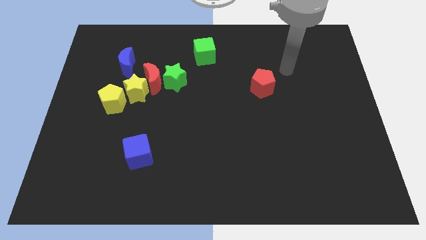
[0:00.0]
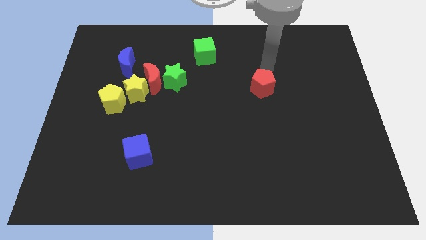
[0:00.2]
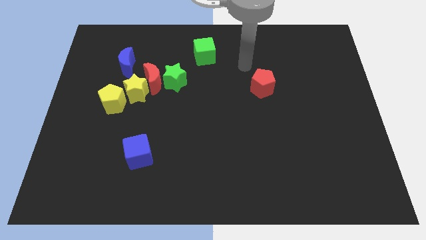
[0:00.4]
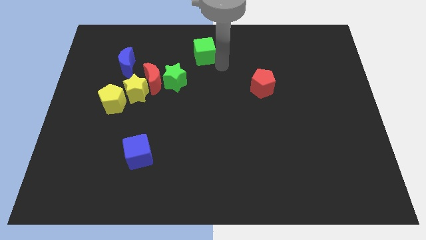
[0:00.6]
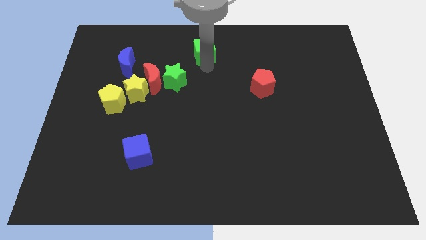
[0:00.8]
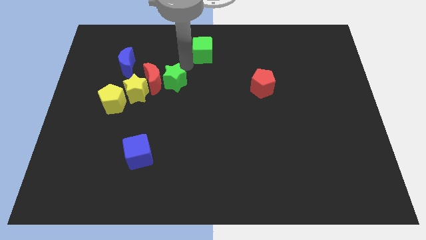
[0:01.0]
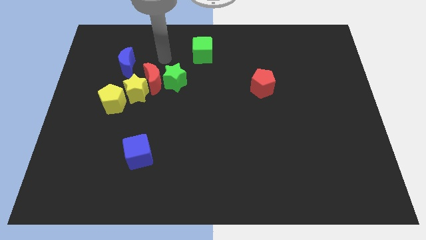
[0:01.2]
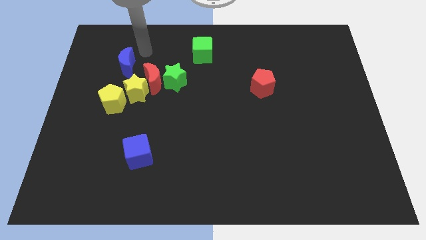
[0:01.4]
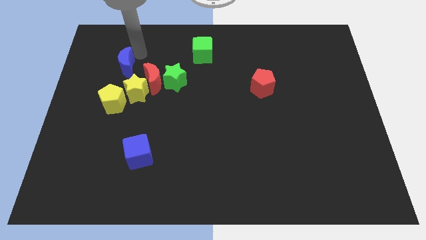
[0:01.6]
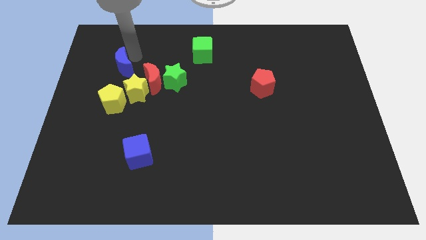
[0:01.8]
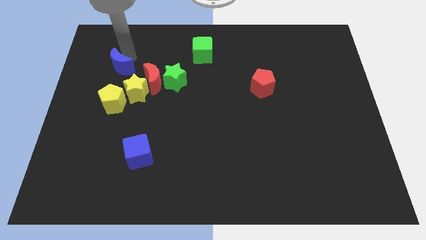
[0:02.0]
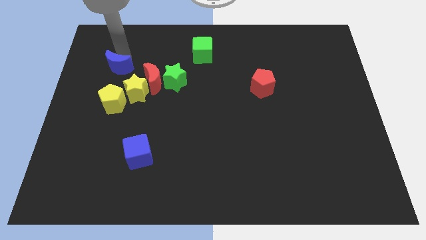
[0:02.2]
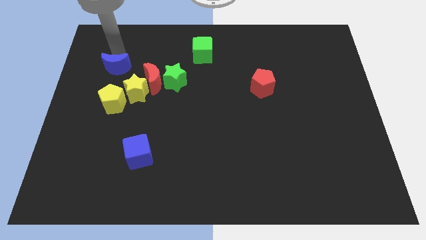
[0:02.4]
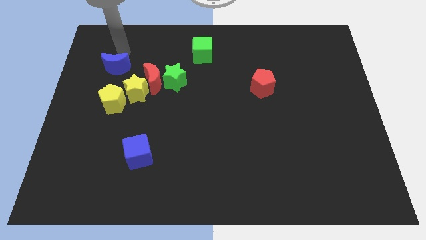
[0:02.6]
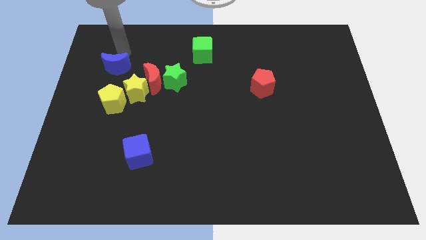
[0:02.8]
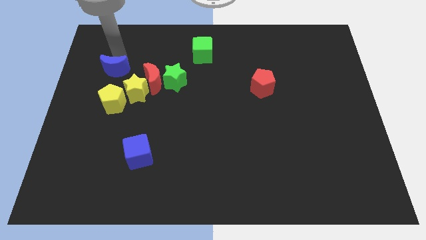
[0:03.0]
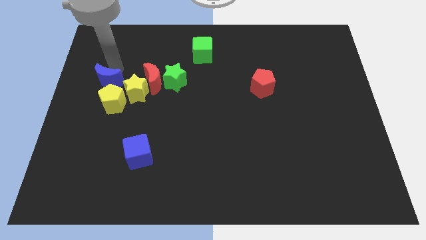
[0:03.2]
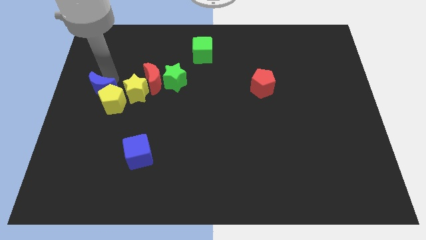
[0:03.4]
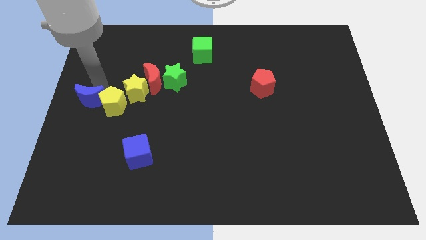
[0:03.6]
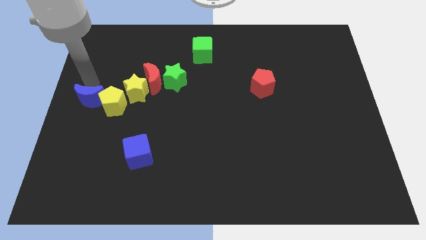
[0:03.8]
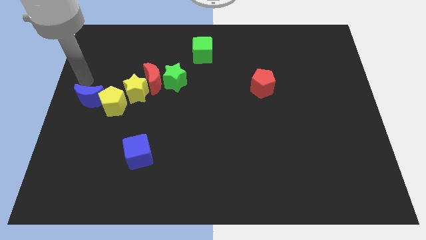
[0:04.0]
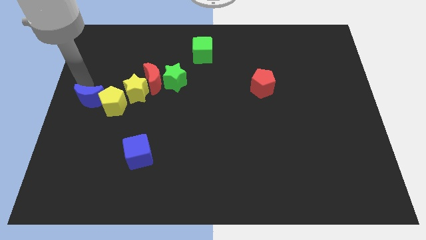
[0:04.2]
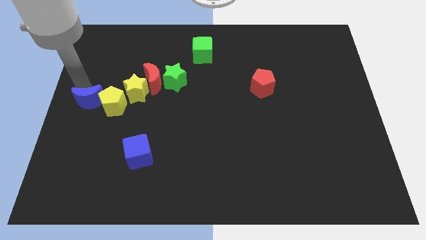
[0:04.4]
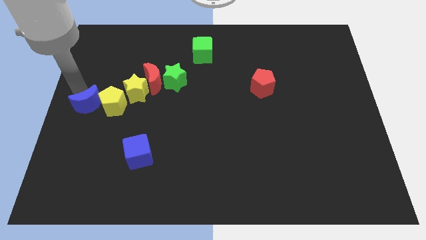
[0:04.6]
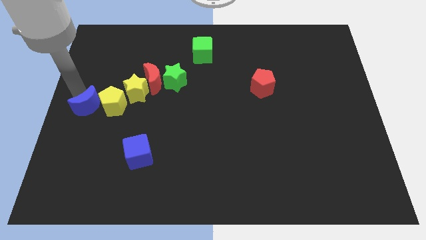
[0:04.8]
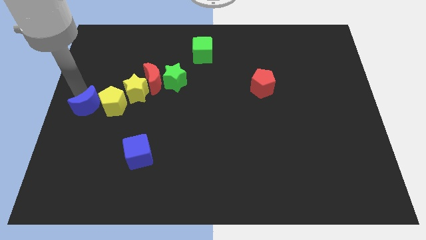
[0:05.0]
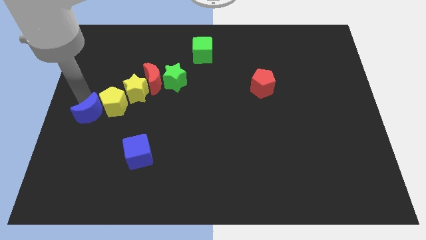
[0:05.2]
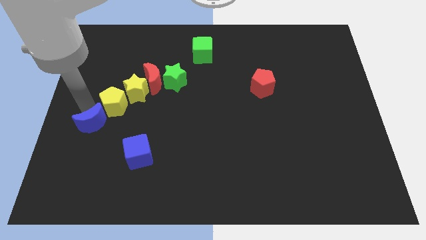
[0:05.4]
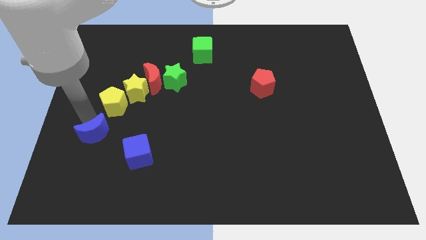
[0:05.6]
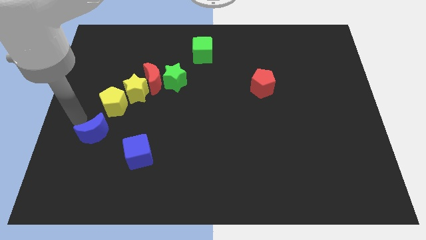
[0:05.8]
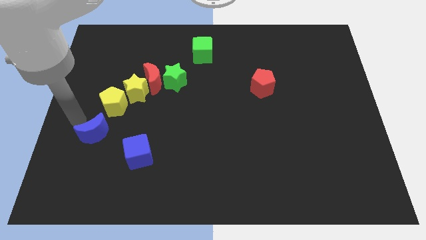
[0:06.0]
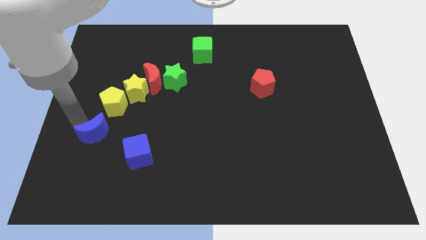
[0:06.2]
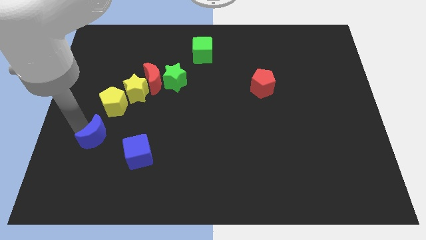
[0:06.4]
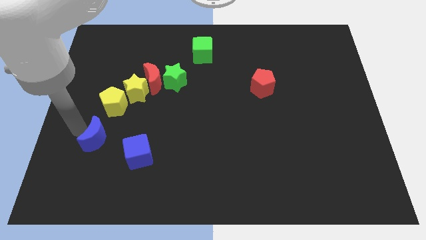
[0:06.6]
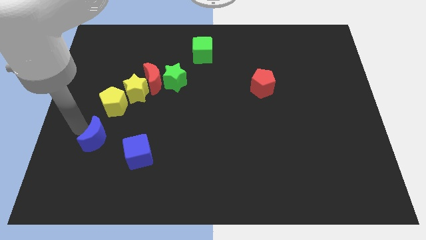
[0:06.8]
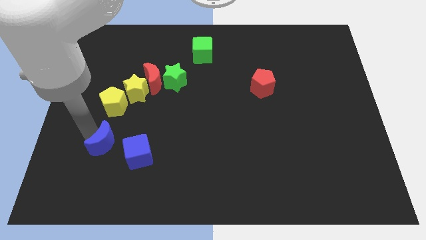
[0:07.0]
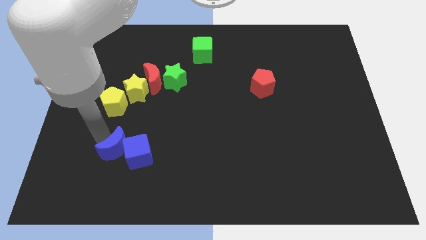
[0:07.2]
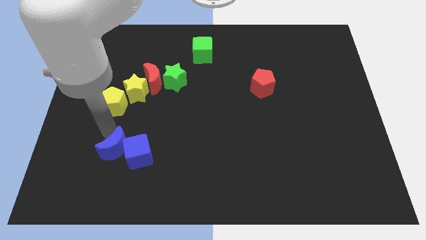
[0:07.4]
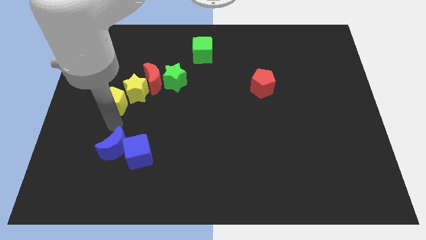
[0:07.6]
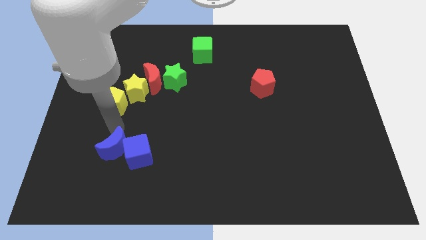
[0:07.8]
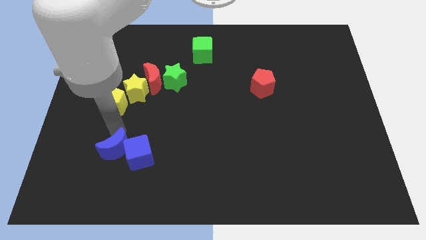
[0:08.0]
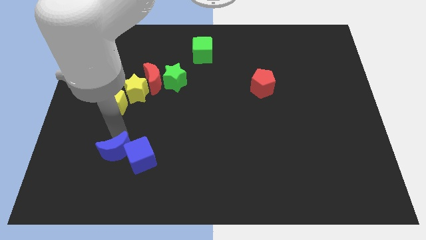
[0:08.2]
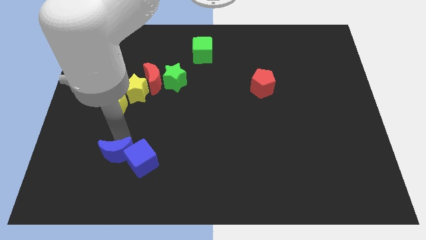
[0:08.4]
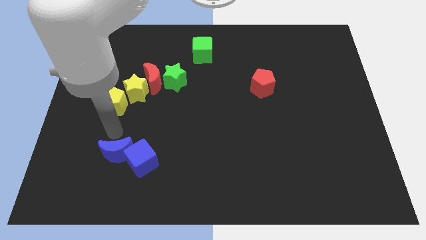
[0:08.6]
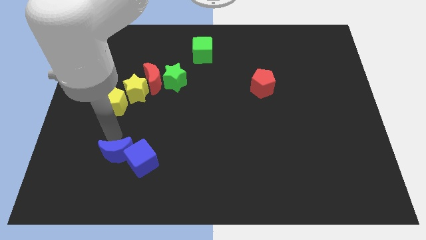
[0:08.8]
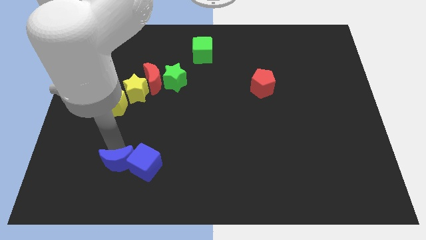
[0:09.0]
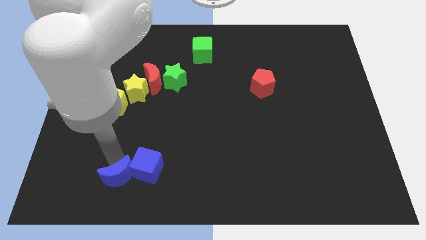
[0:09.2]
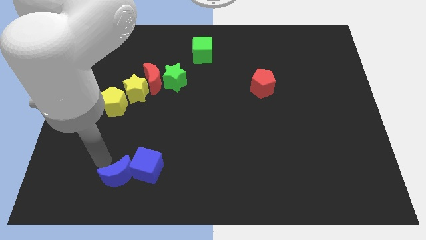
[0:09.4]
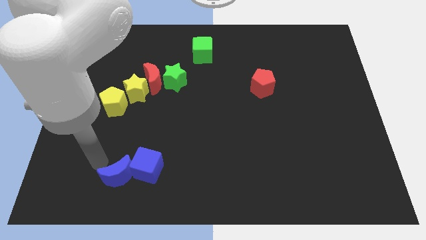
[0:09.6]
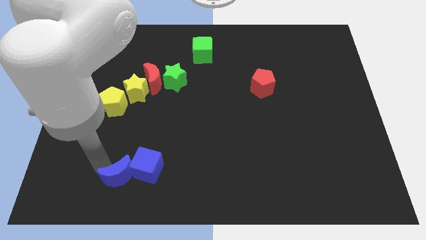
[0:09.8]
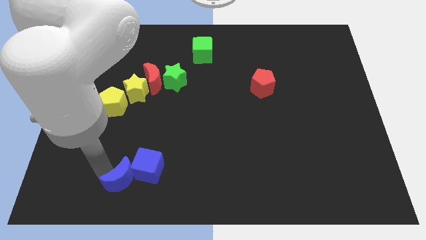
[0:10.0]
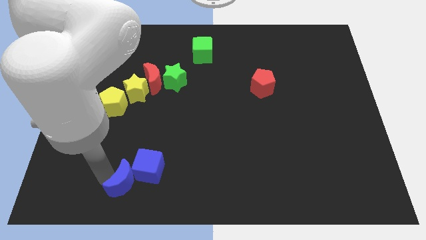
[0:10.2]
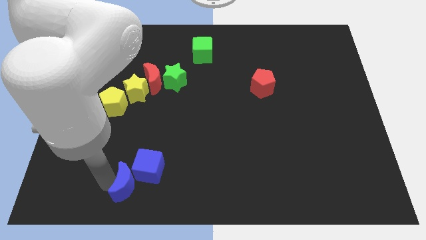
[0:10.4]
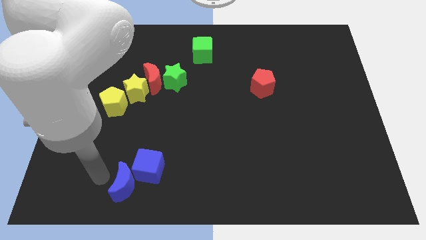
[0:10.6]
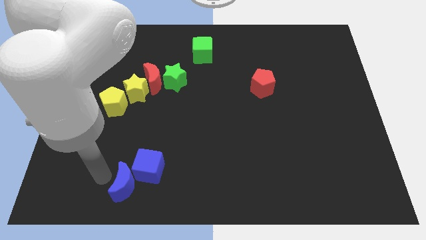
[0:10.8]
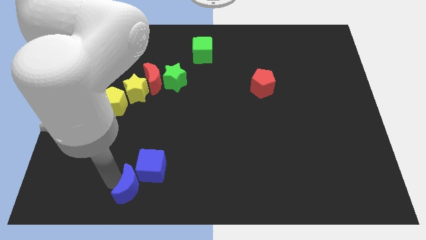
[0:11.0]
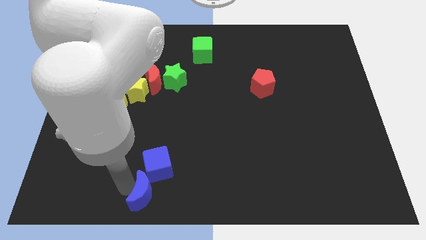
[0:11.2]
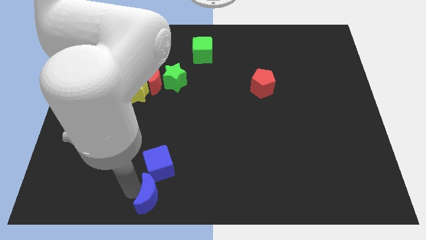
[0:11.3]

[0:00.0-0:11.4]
put the blue moon to the bottom

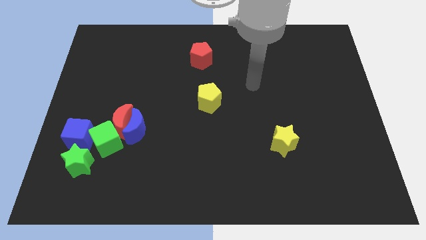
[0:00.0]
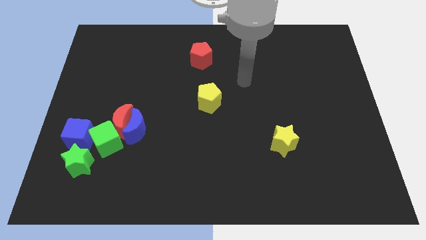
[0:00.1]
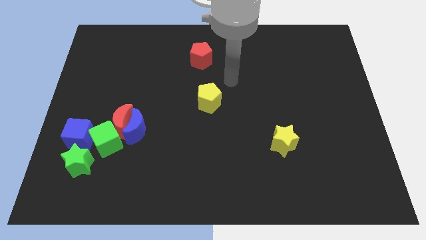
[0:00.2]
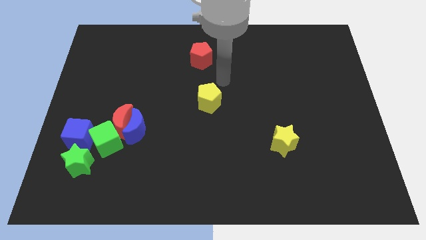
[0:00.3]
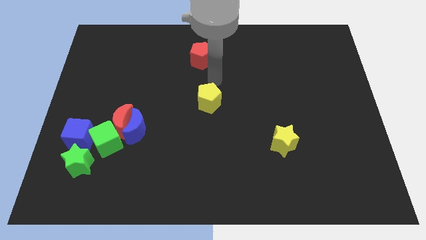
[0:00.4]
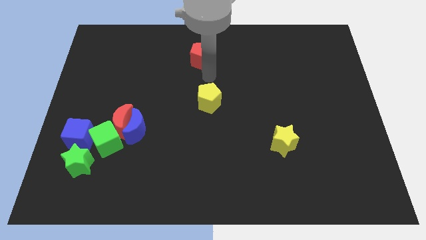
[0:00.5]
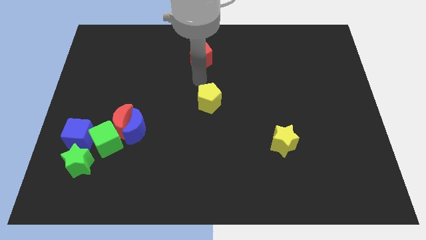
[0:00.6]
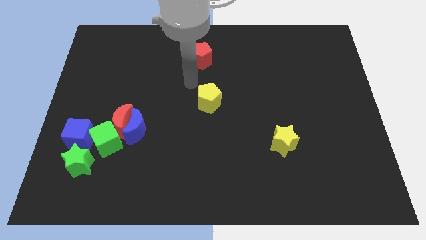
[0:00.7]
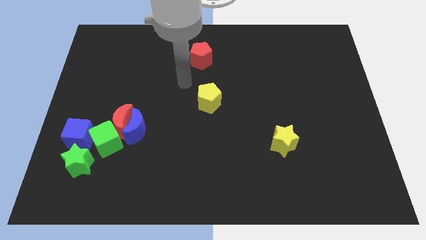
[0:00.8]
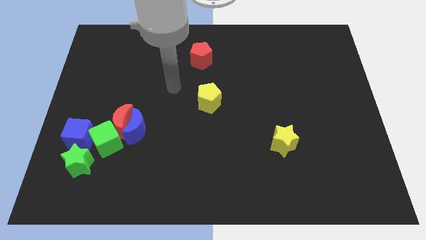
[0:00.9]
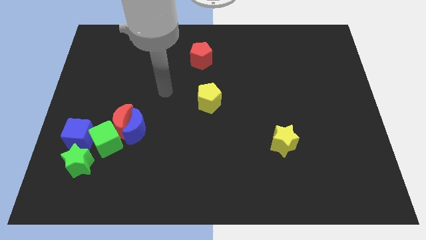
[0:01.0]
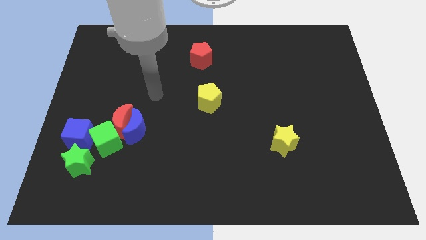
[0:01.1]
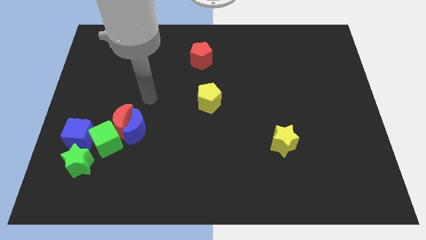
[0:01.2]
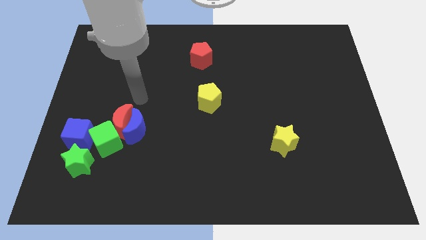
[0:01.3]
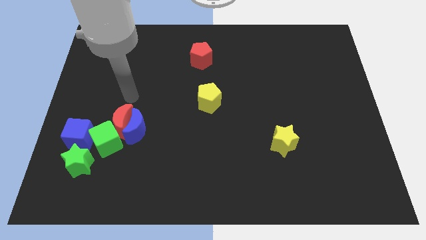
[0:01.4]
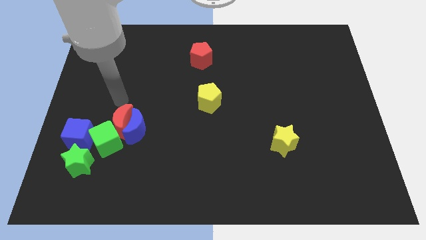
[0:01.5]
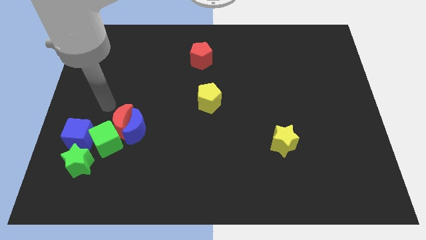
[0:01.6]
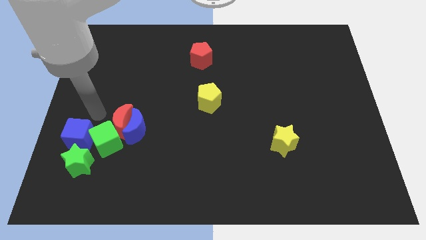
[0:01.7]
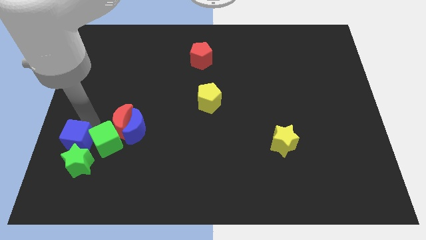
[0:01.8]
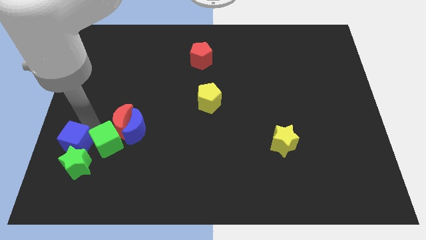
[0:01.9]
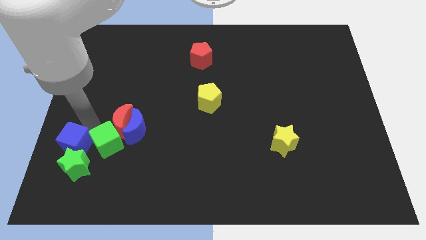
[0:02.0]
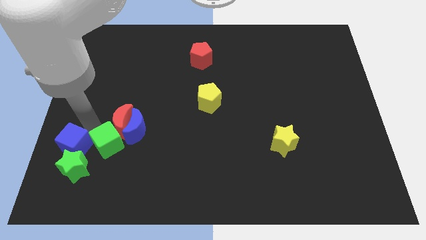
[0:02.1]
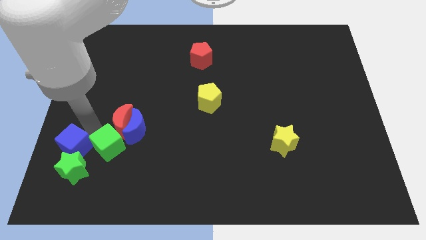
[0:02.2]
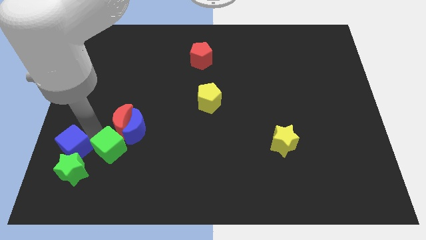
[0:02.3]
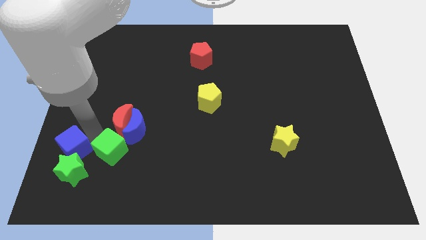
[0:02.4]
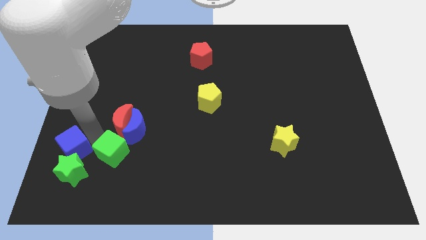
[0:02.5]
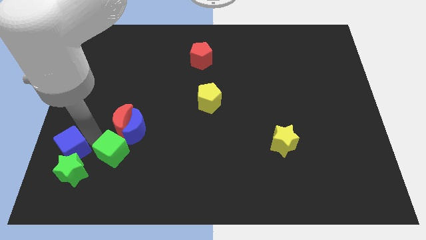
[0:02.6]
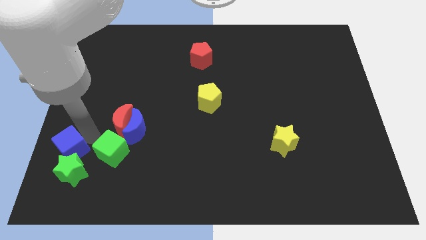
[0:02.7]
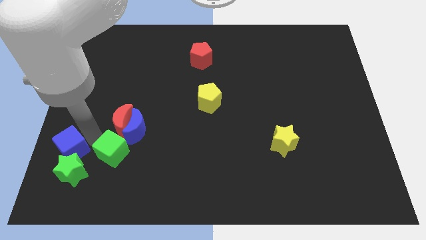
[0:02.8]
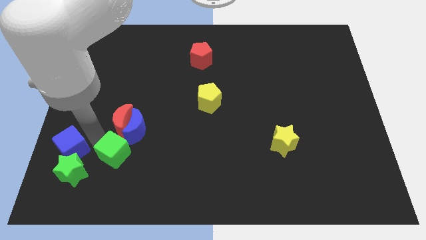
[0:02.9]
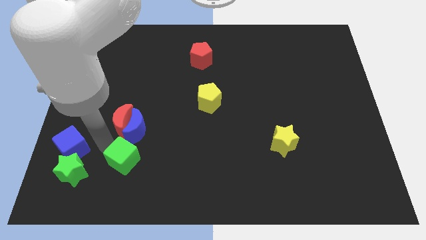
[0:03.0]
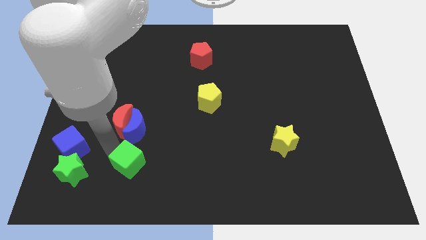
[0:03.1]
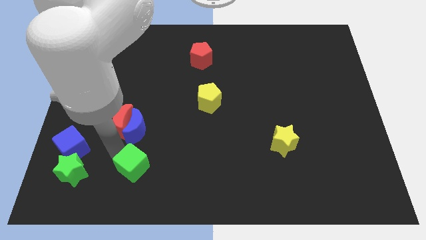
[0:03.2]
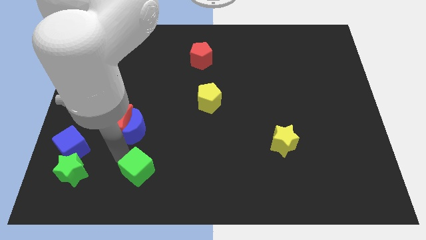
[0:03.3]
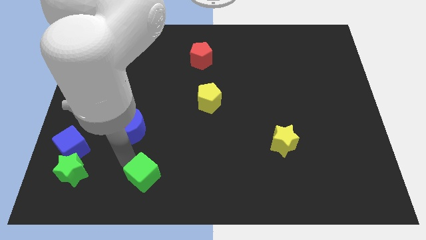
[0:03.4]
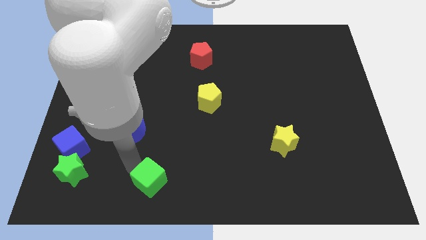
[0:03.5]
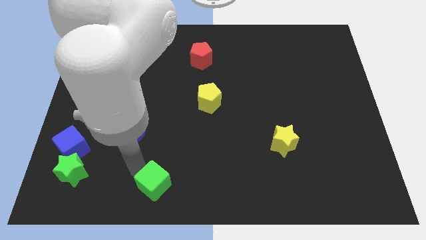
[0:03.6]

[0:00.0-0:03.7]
push the green cube to the bottom side
